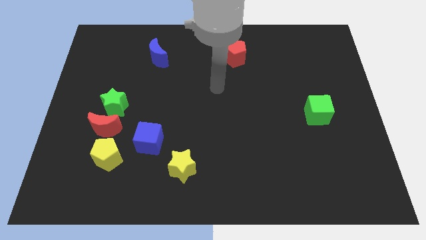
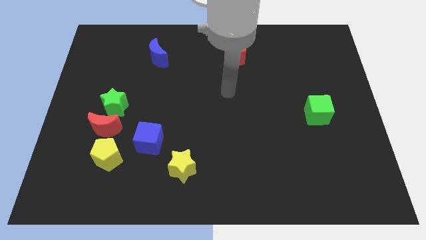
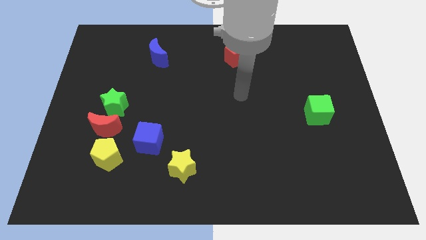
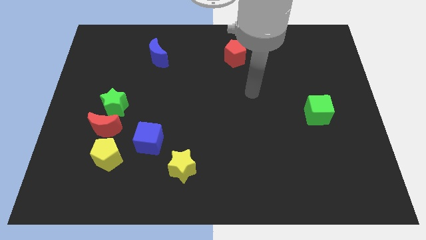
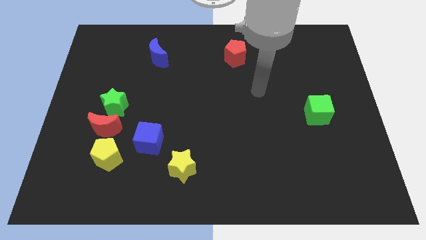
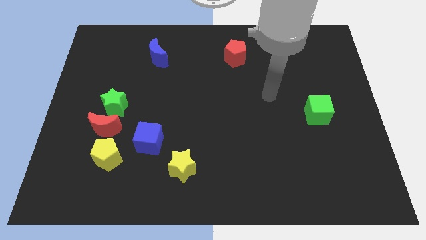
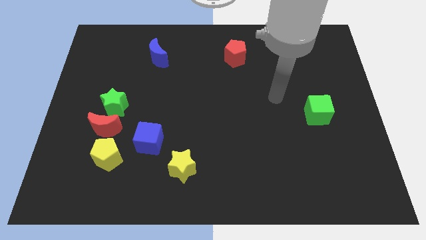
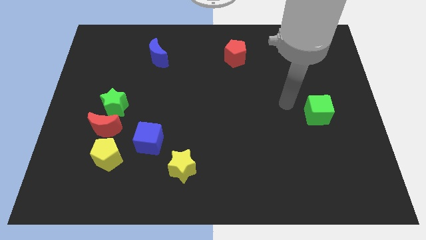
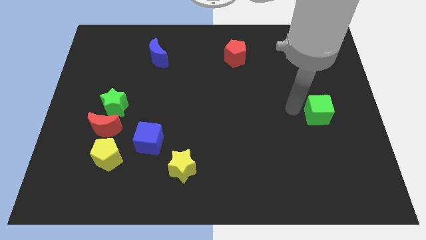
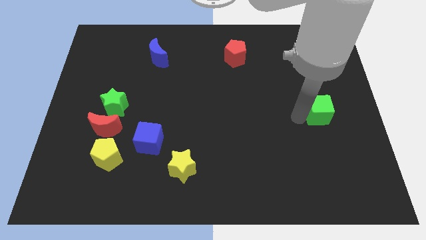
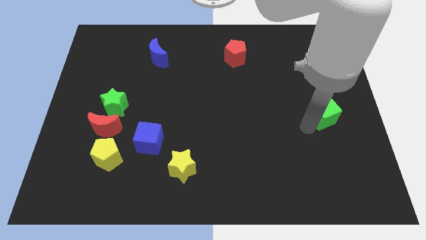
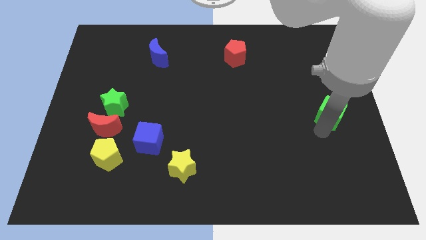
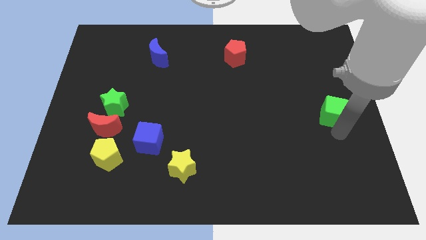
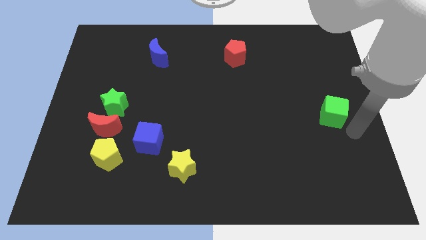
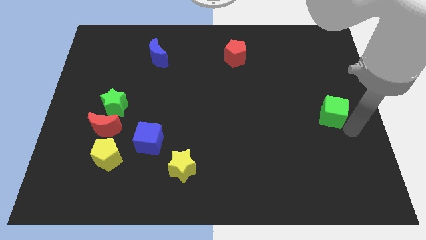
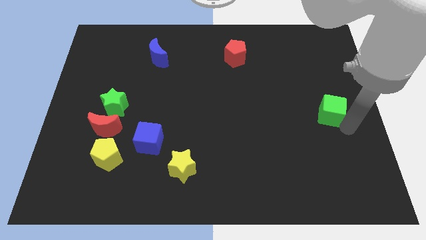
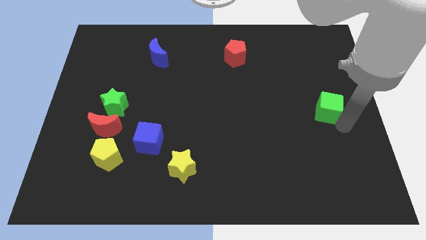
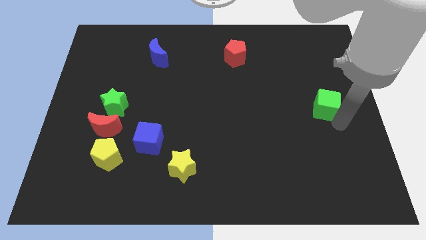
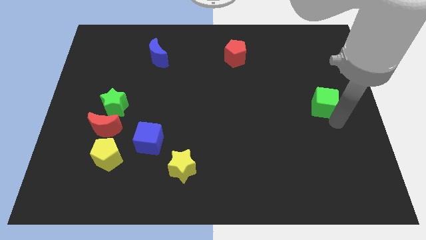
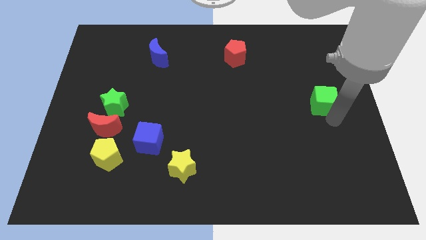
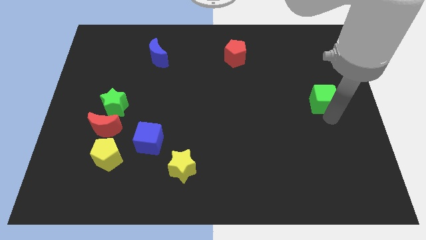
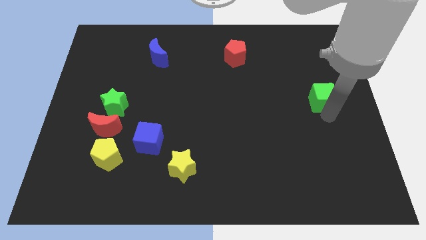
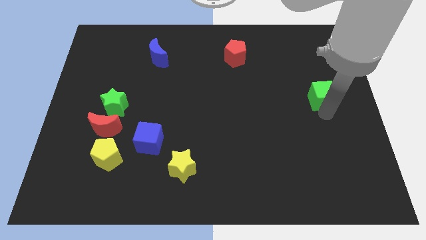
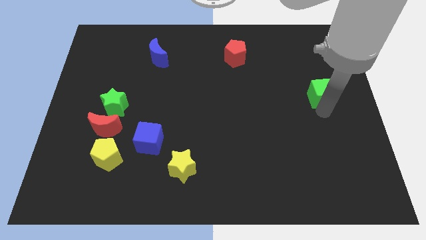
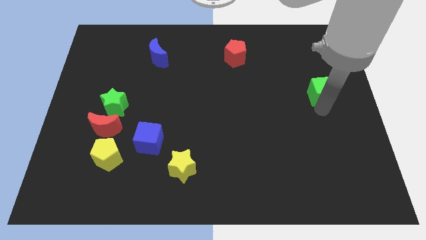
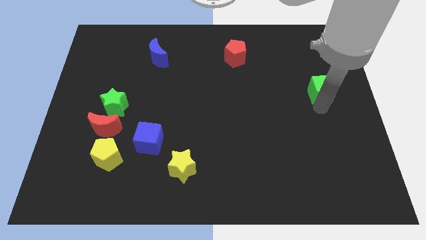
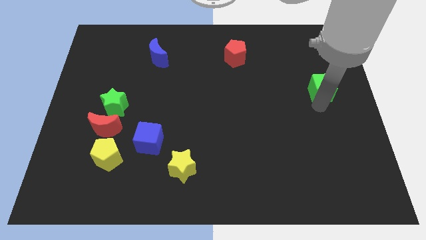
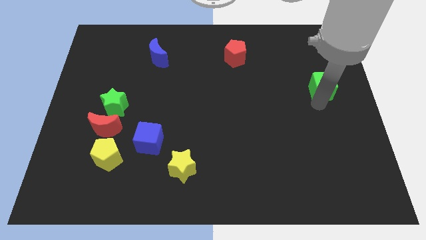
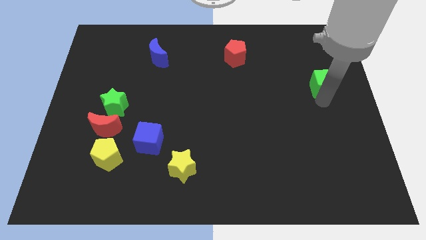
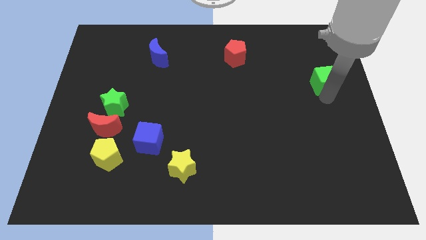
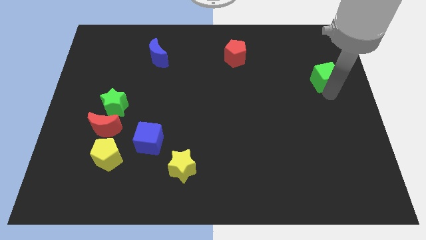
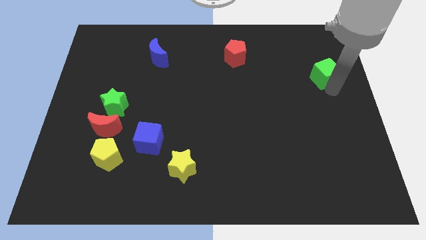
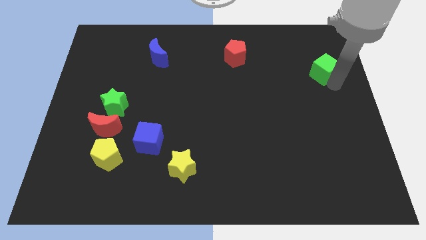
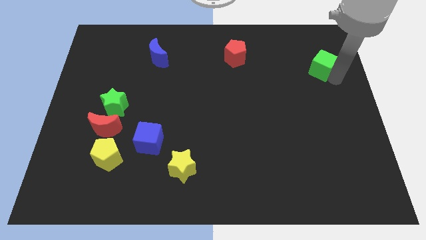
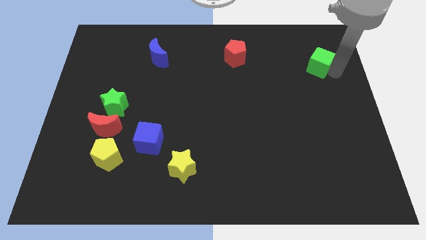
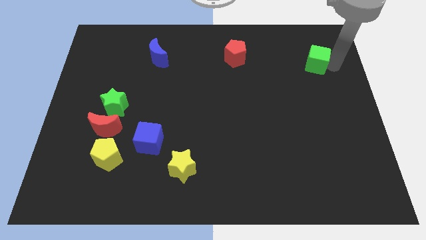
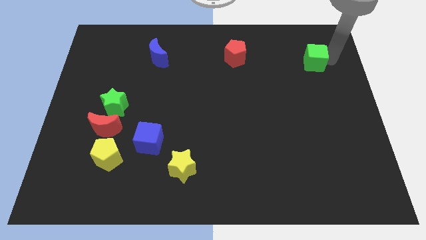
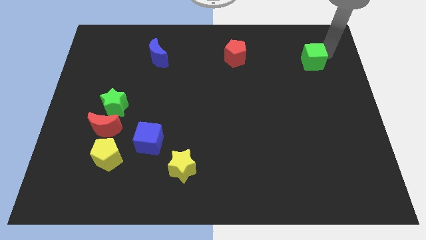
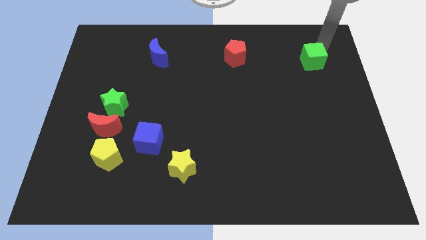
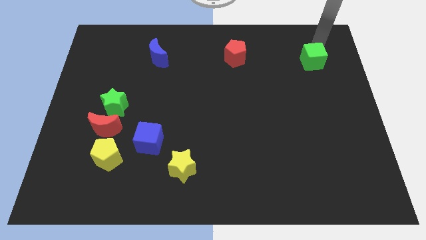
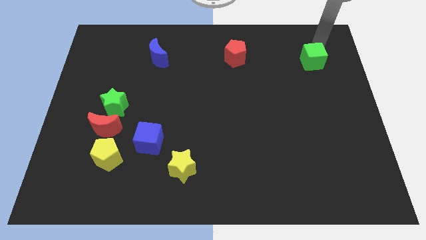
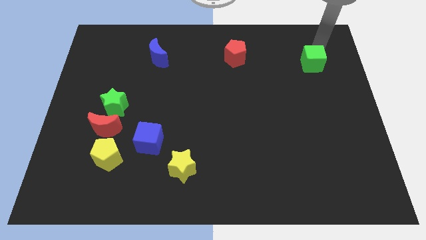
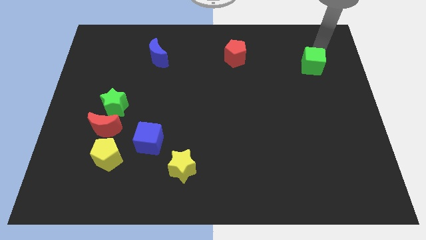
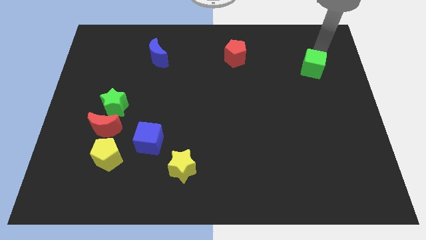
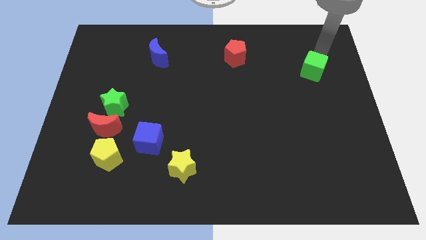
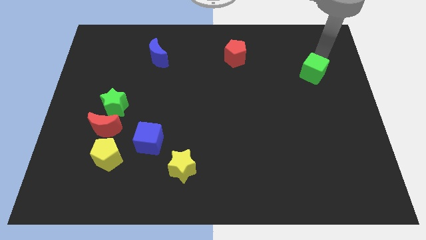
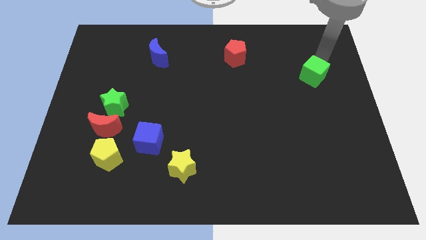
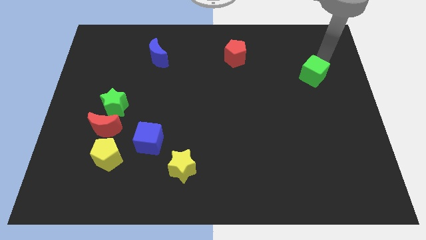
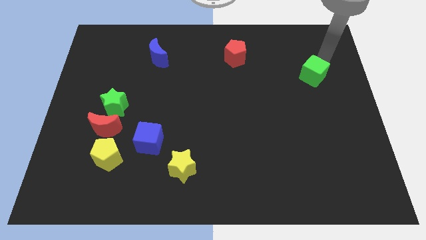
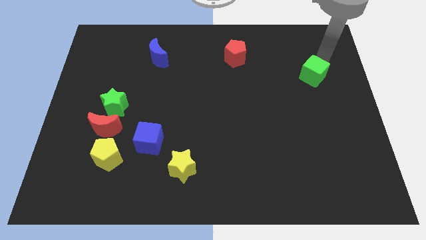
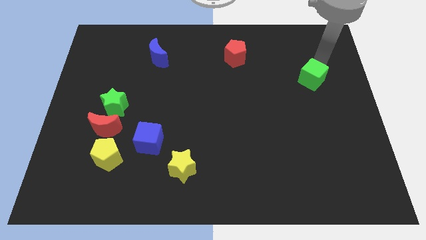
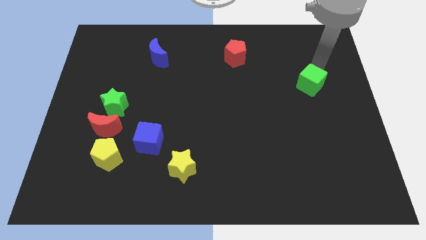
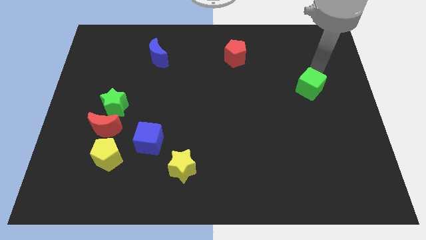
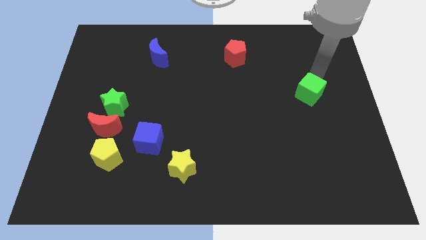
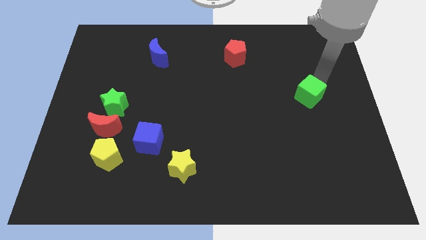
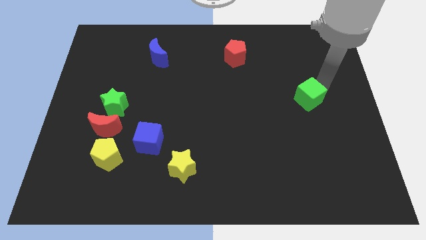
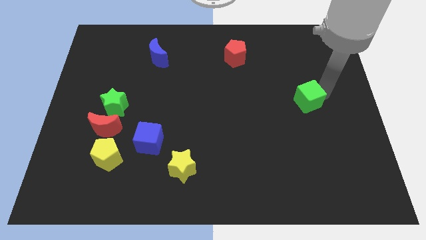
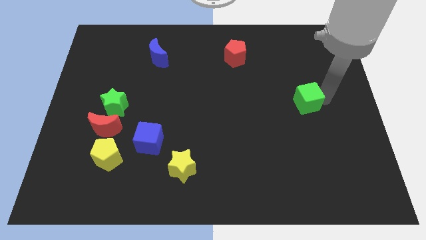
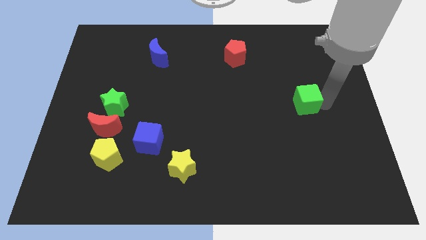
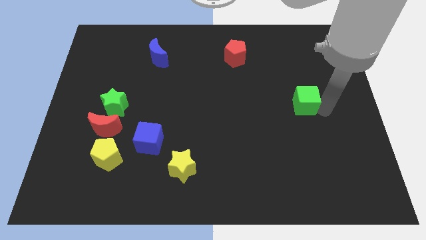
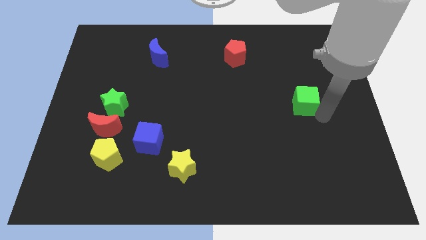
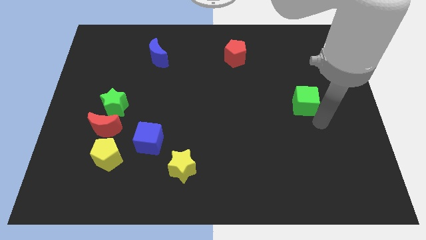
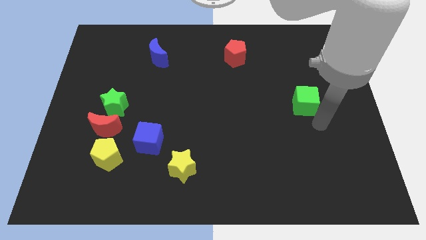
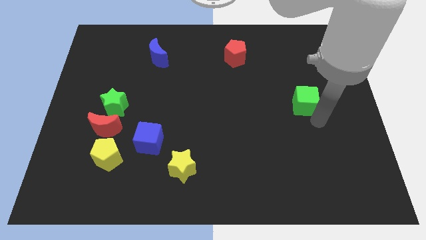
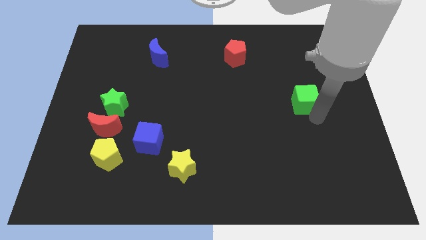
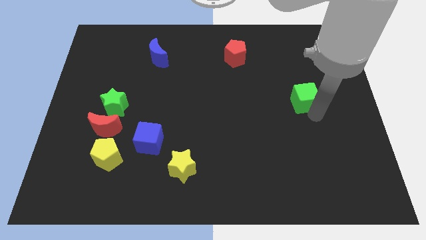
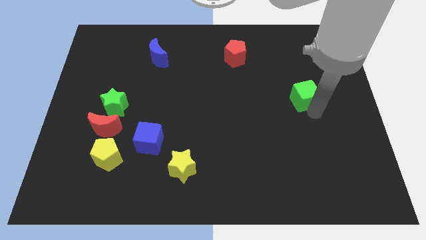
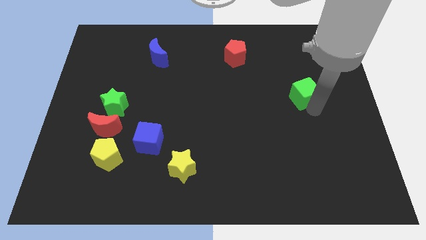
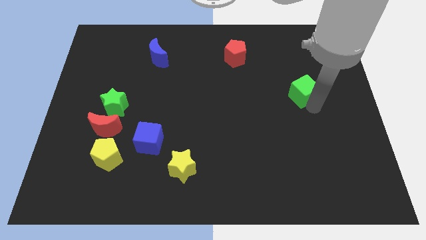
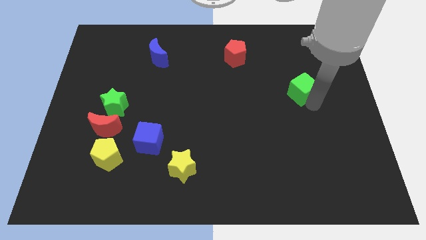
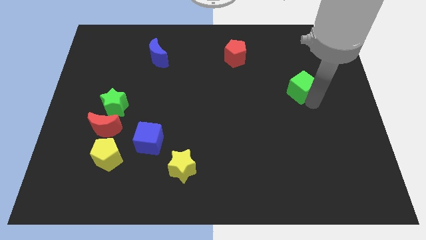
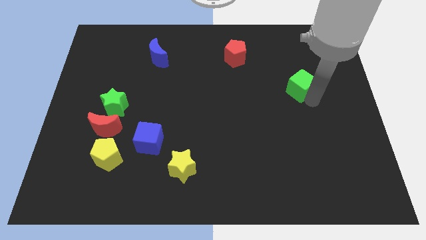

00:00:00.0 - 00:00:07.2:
slide the green cube diagonally up and to the left slightly

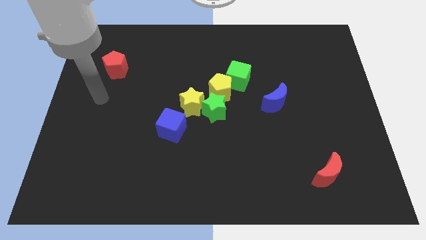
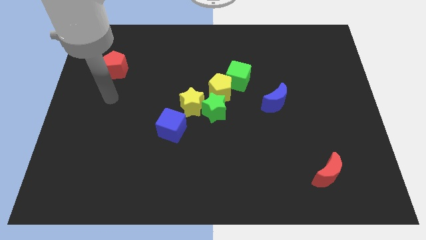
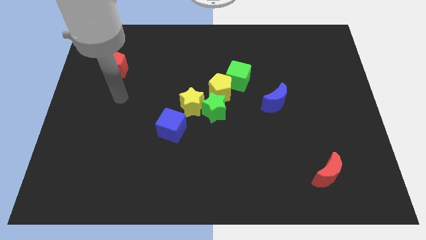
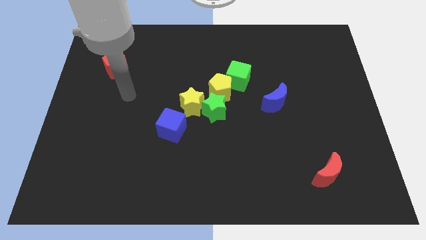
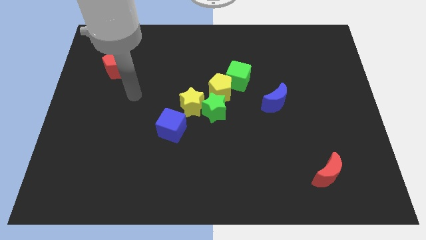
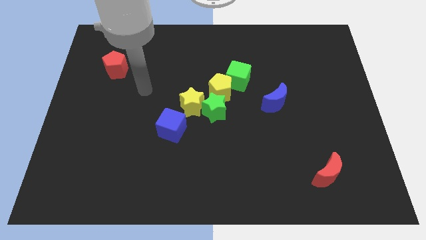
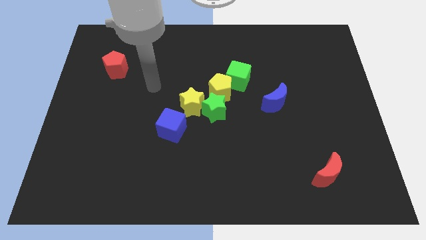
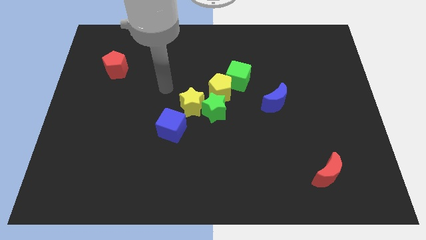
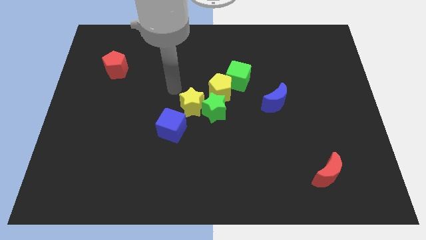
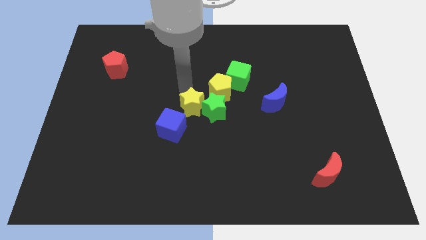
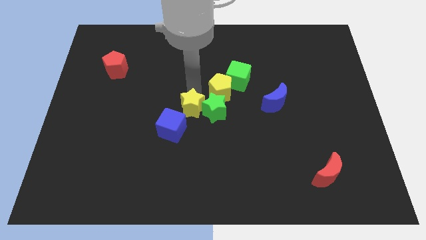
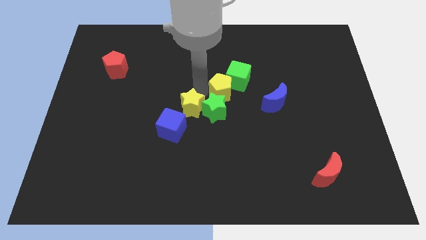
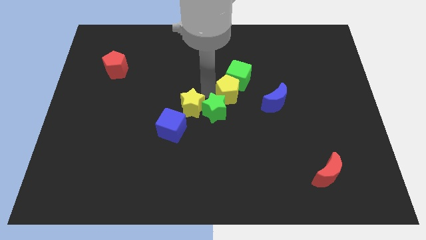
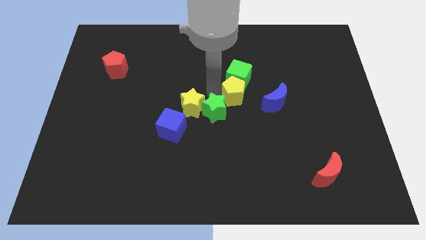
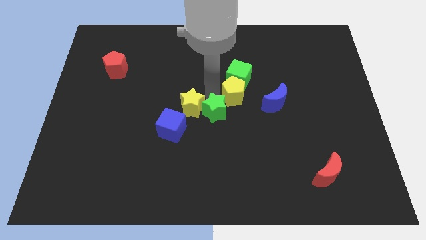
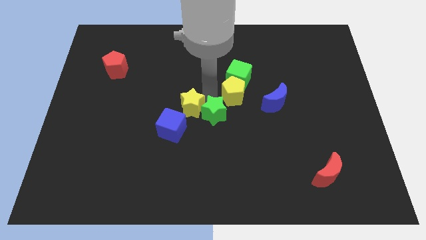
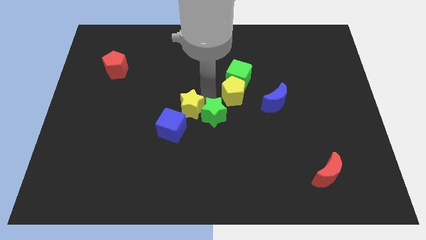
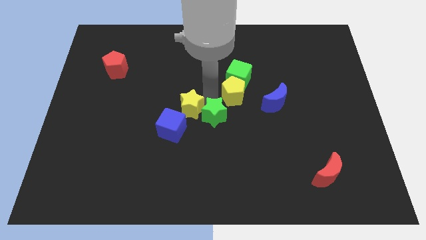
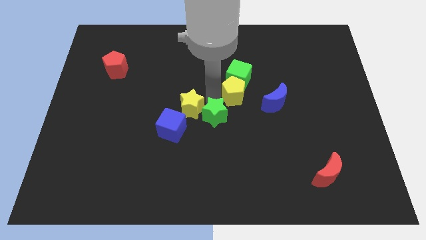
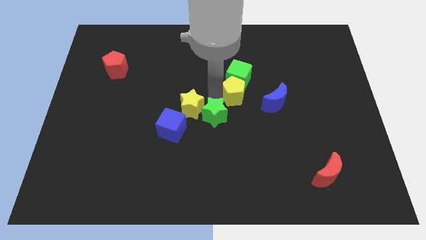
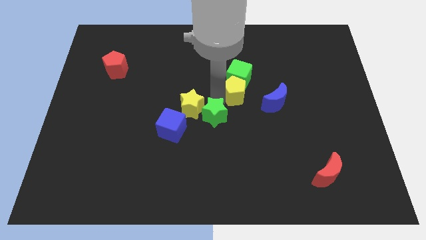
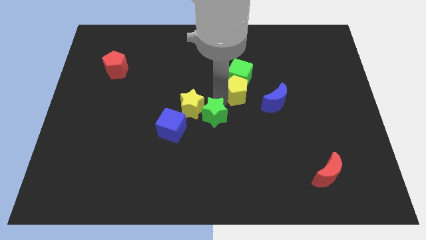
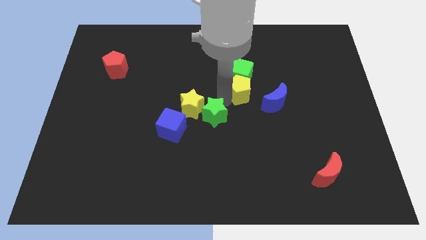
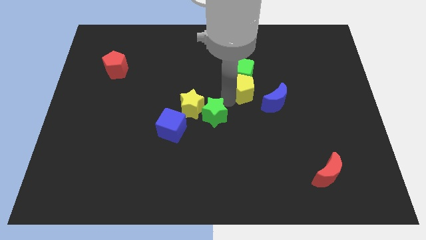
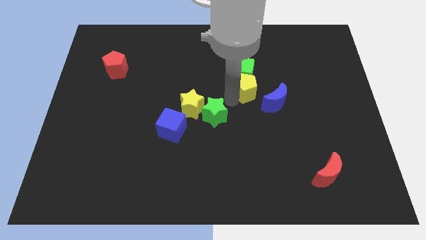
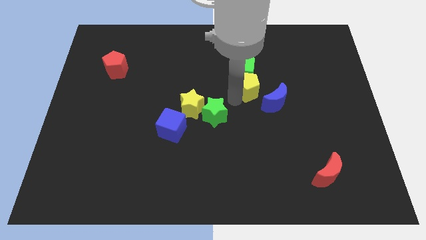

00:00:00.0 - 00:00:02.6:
move the yellow pentagon to the right a little
